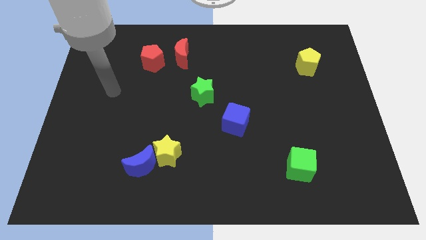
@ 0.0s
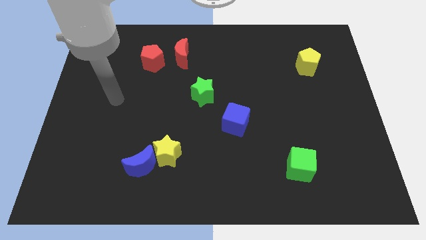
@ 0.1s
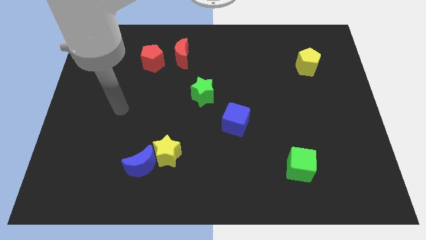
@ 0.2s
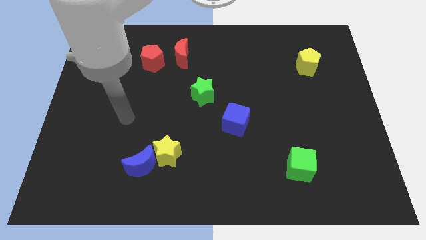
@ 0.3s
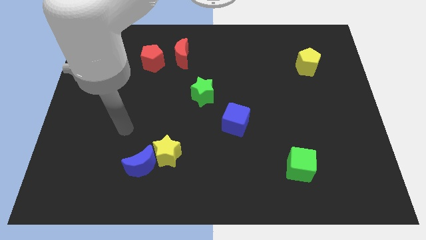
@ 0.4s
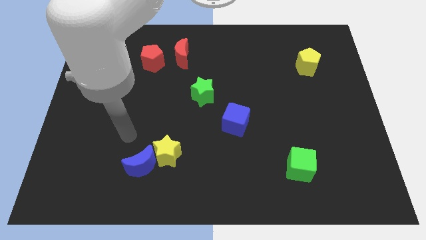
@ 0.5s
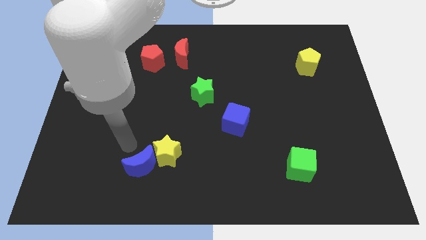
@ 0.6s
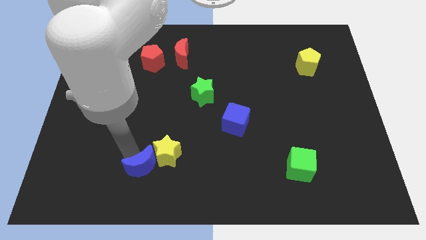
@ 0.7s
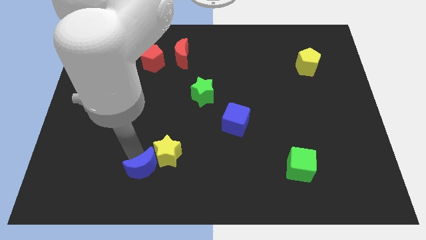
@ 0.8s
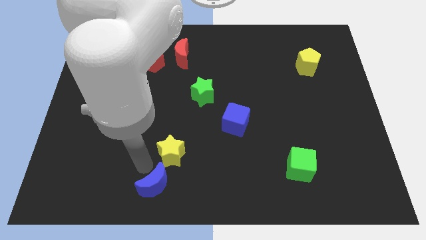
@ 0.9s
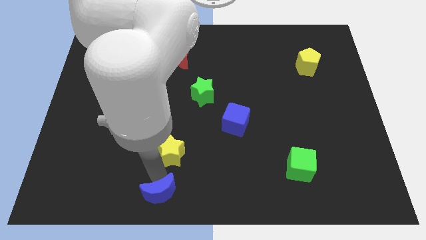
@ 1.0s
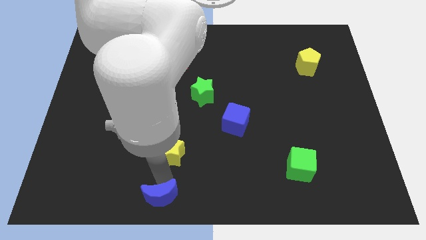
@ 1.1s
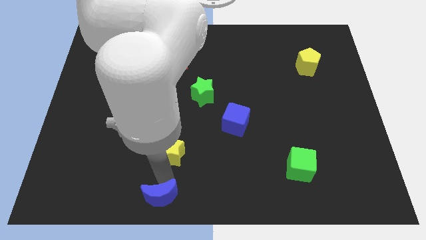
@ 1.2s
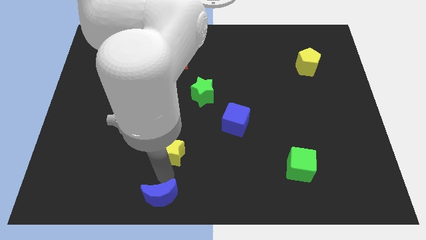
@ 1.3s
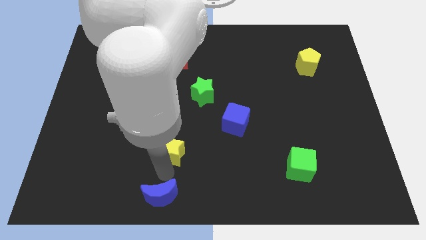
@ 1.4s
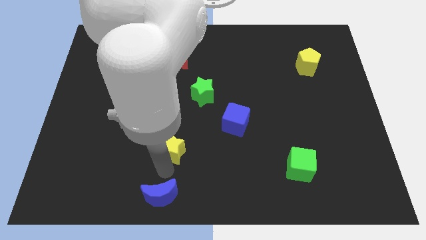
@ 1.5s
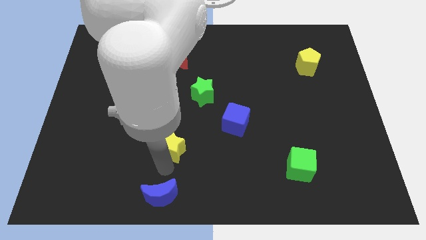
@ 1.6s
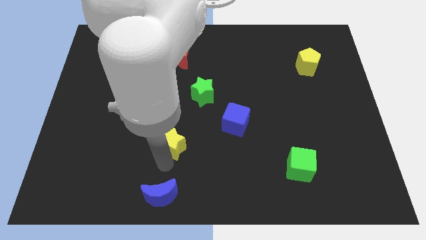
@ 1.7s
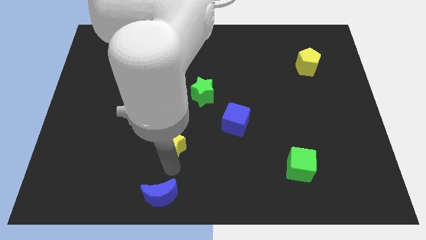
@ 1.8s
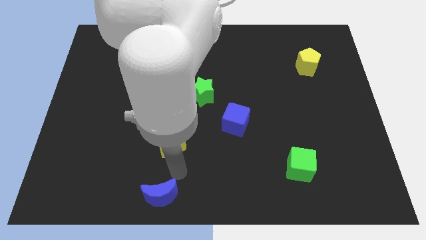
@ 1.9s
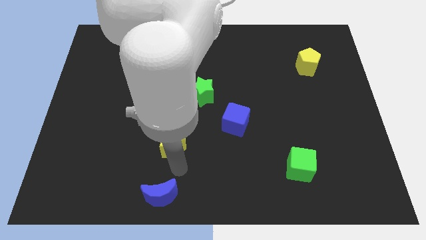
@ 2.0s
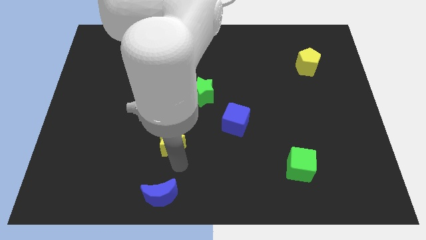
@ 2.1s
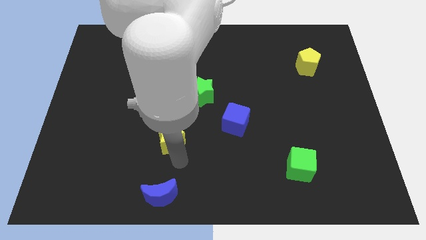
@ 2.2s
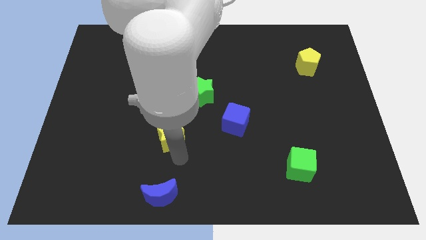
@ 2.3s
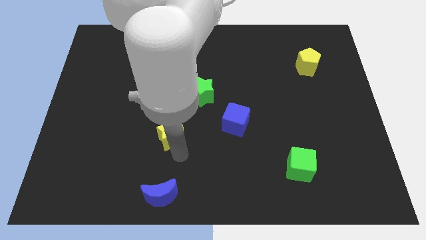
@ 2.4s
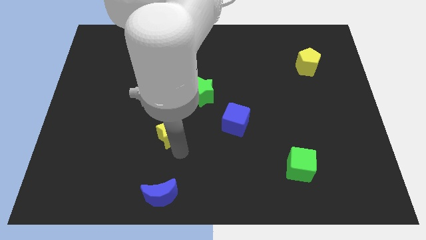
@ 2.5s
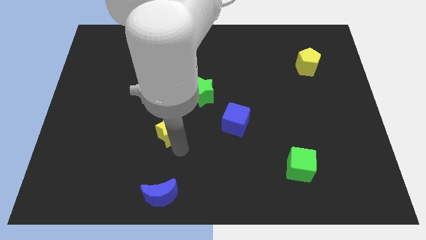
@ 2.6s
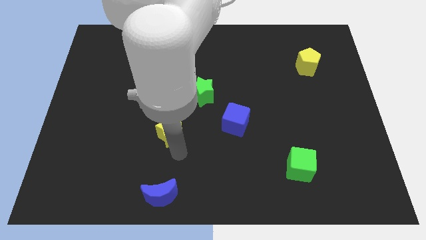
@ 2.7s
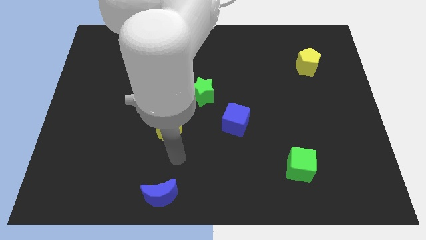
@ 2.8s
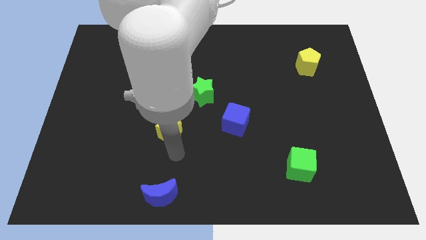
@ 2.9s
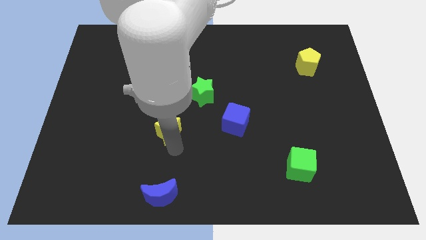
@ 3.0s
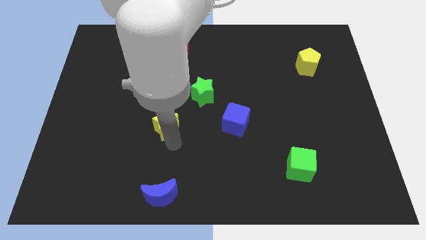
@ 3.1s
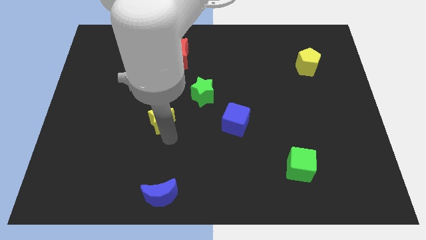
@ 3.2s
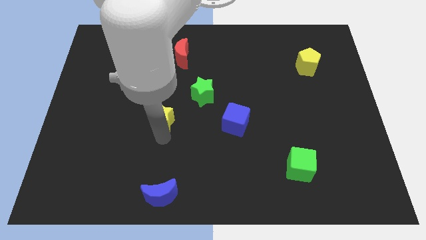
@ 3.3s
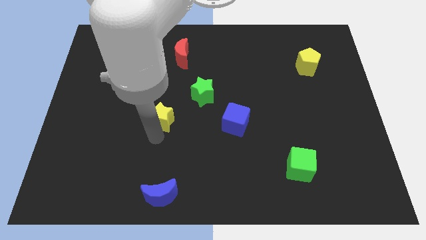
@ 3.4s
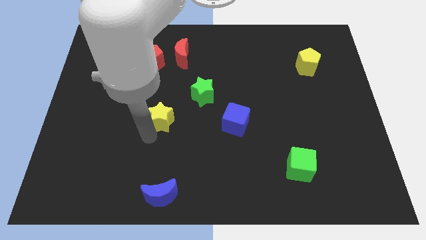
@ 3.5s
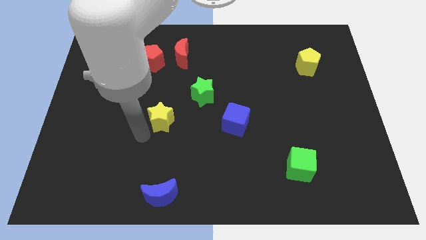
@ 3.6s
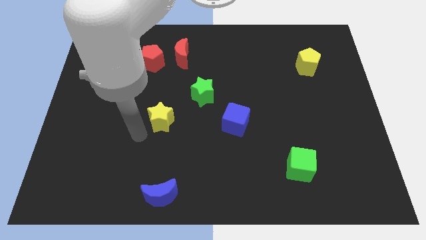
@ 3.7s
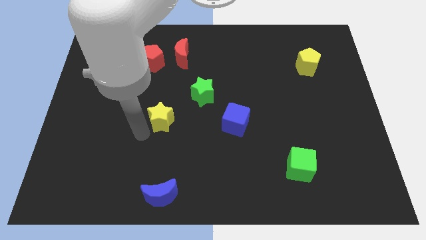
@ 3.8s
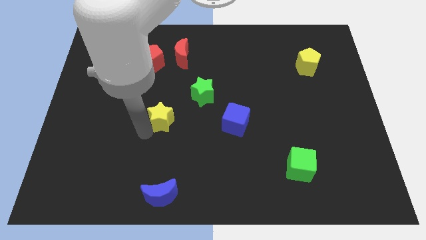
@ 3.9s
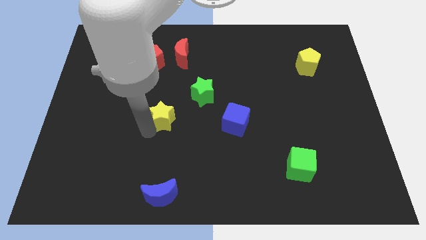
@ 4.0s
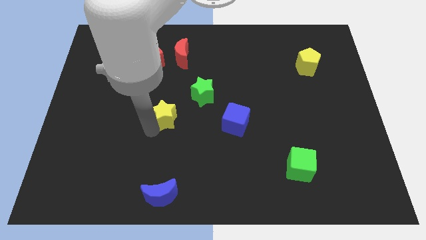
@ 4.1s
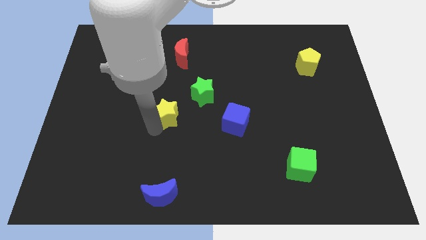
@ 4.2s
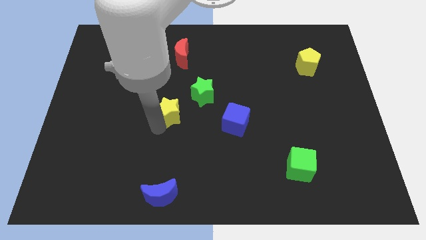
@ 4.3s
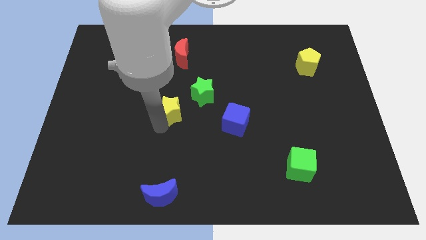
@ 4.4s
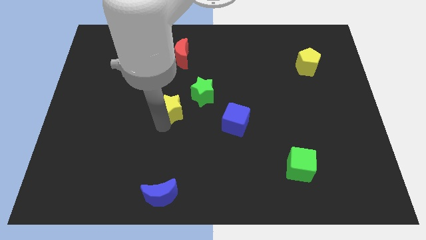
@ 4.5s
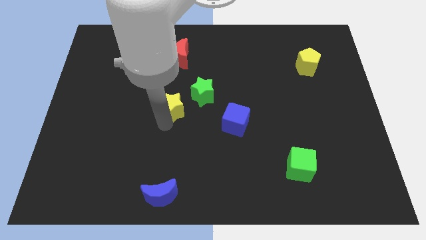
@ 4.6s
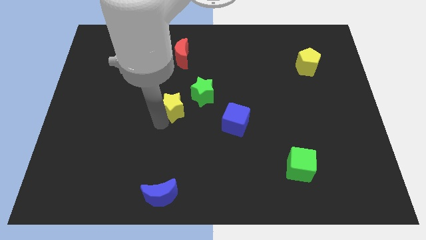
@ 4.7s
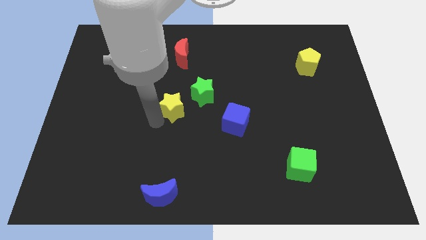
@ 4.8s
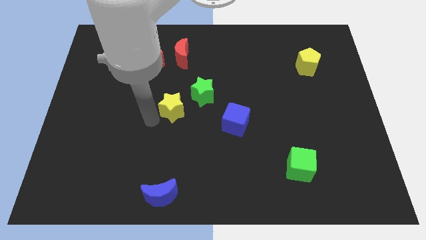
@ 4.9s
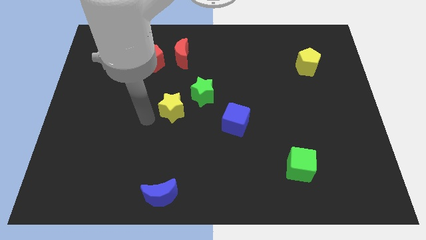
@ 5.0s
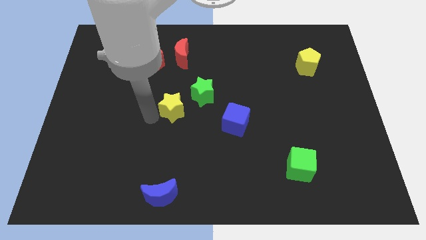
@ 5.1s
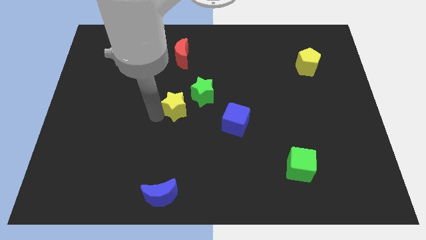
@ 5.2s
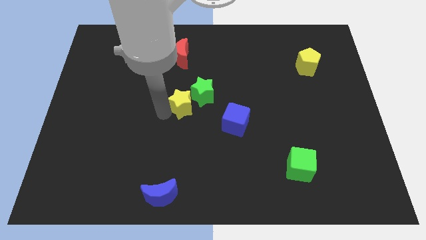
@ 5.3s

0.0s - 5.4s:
slide the yellow star next to the green star

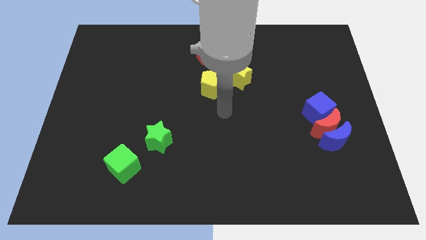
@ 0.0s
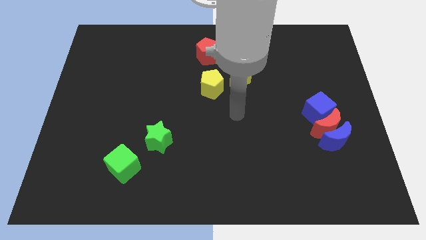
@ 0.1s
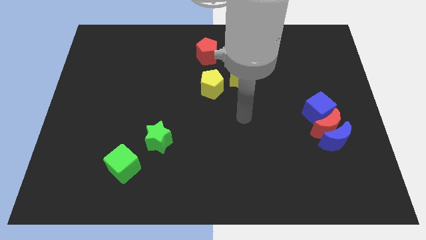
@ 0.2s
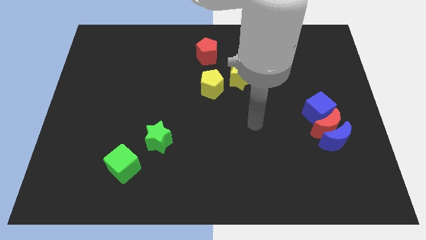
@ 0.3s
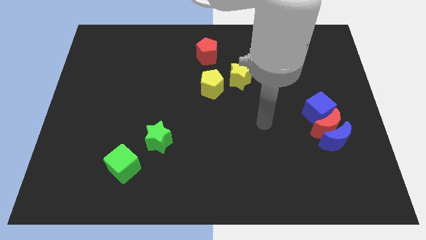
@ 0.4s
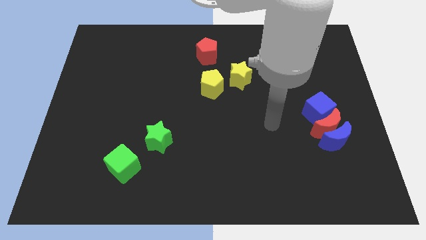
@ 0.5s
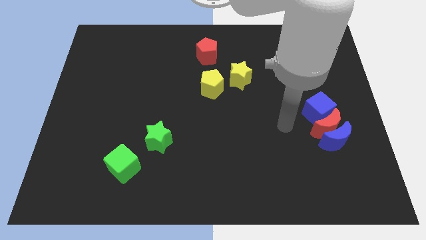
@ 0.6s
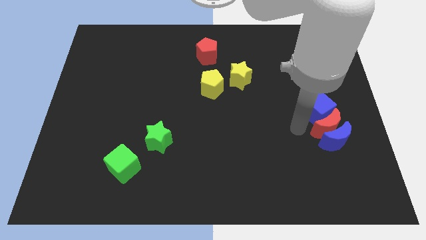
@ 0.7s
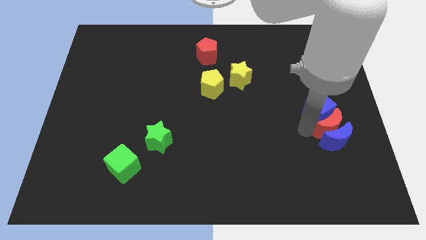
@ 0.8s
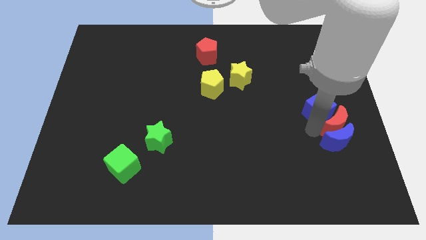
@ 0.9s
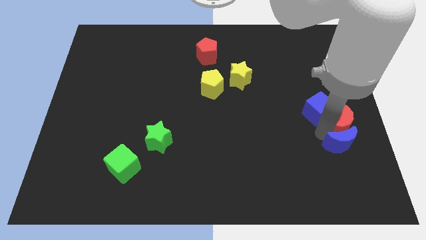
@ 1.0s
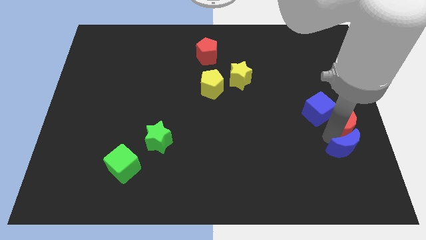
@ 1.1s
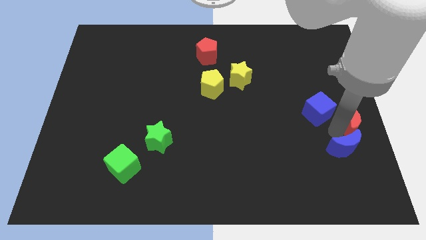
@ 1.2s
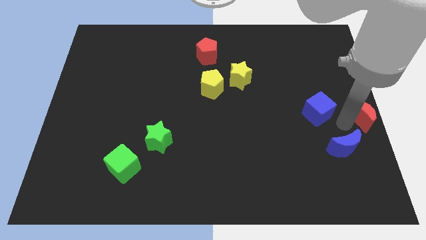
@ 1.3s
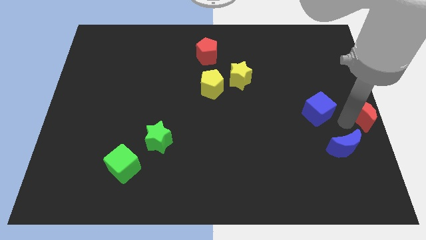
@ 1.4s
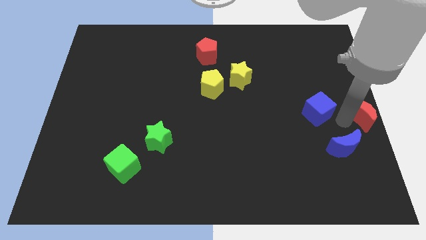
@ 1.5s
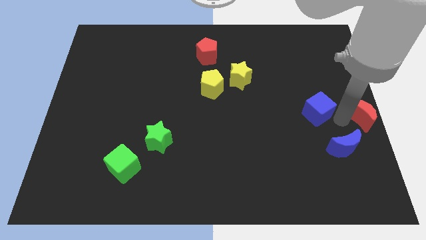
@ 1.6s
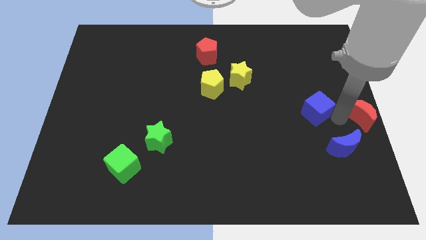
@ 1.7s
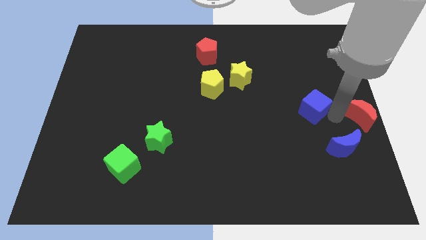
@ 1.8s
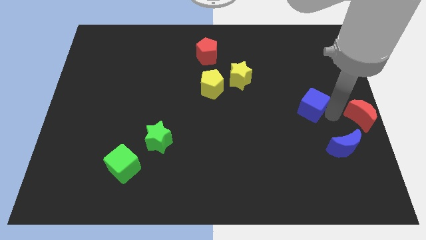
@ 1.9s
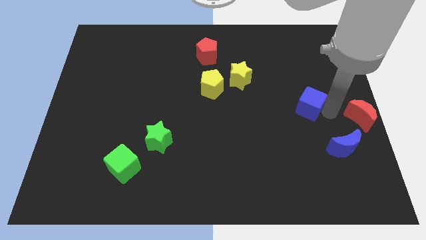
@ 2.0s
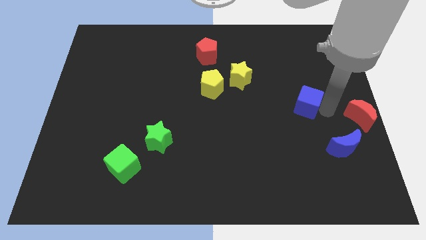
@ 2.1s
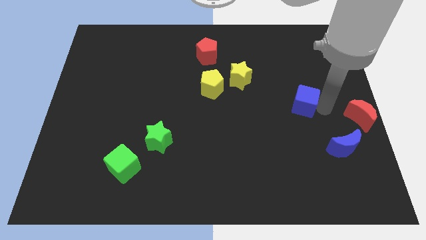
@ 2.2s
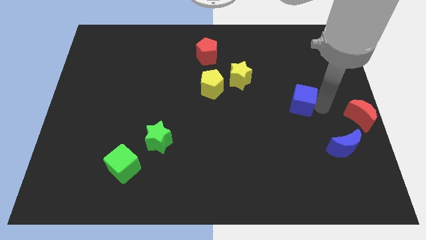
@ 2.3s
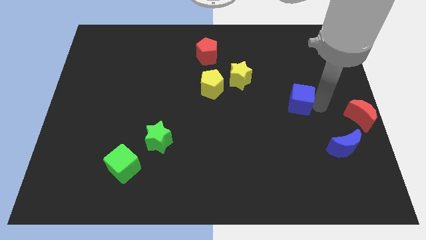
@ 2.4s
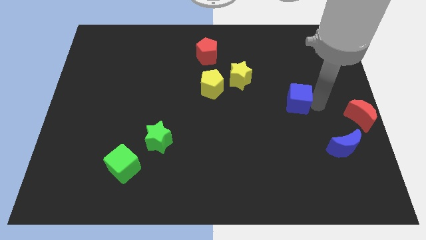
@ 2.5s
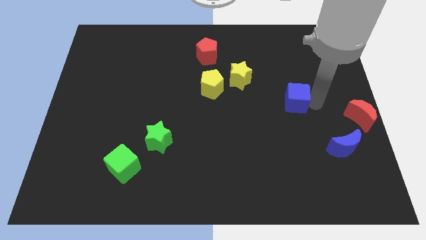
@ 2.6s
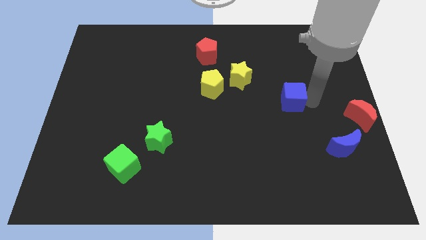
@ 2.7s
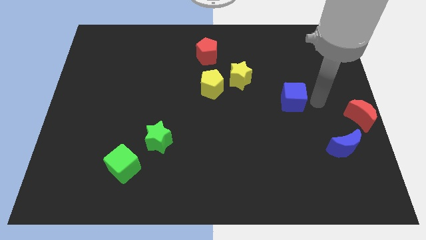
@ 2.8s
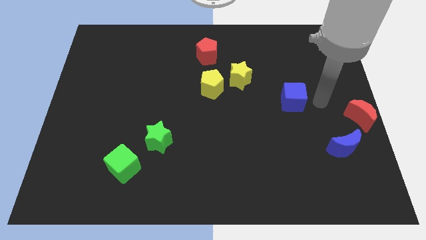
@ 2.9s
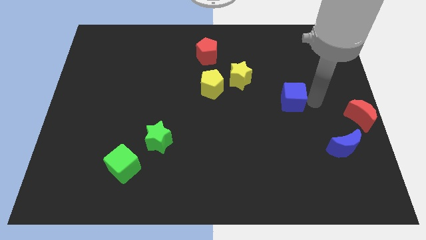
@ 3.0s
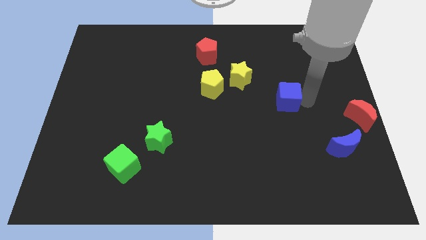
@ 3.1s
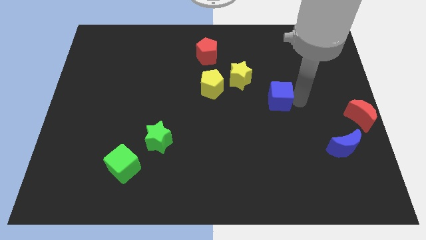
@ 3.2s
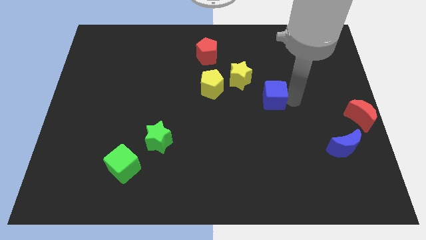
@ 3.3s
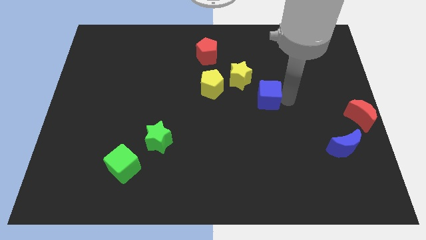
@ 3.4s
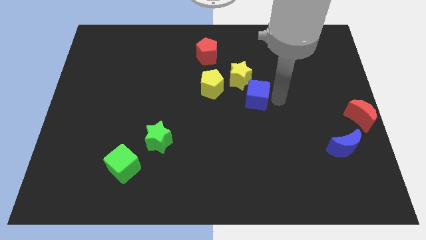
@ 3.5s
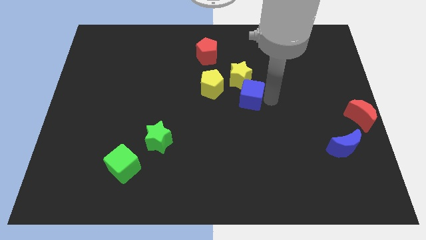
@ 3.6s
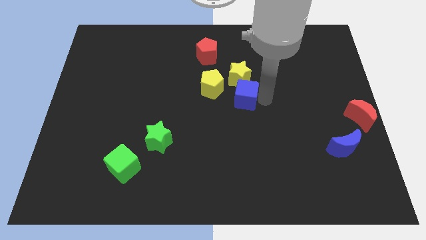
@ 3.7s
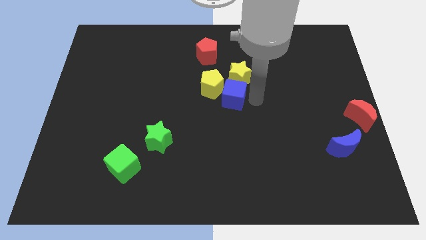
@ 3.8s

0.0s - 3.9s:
move the blue cube next to the yellow pentagon
